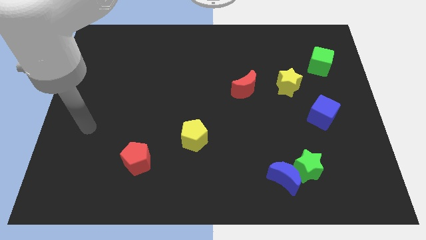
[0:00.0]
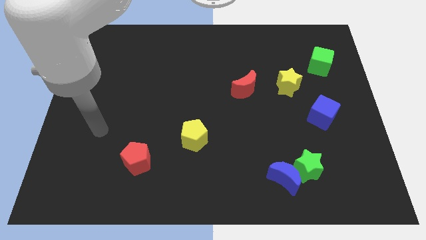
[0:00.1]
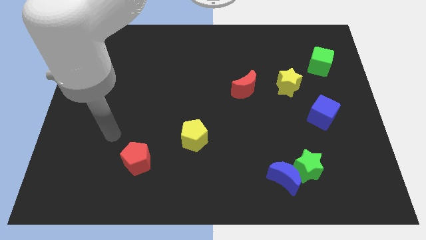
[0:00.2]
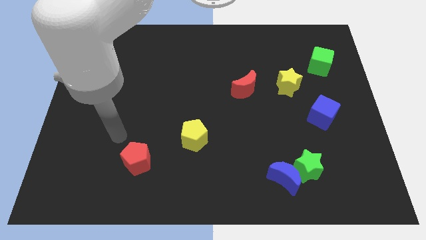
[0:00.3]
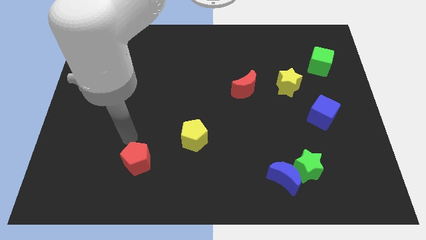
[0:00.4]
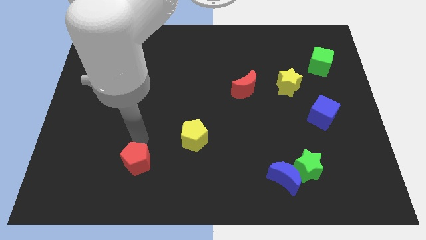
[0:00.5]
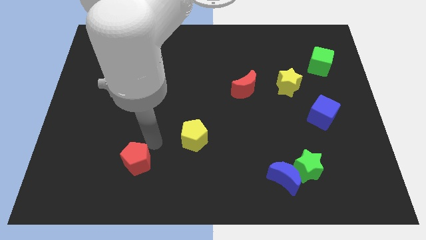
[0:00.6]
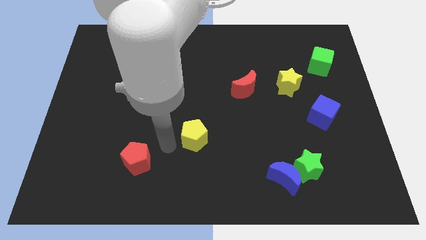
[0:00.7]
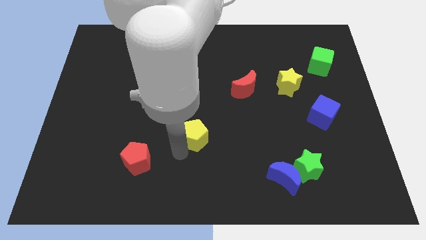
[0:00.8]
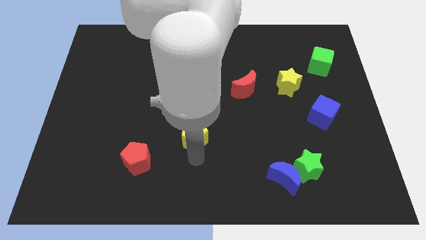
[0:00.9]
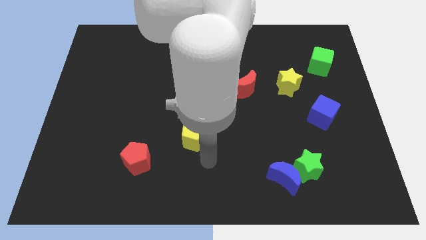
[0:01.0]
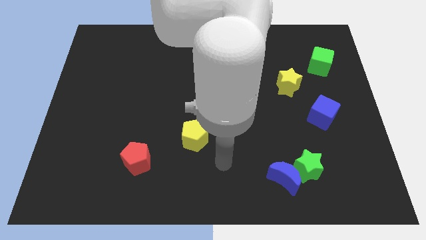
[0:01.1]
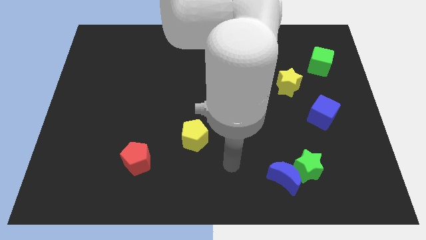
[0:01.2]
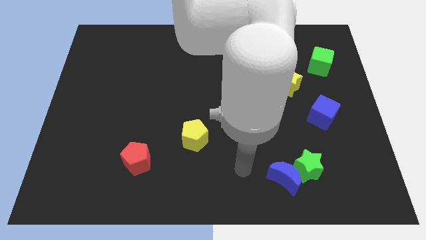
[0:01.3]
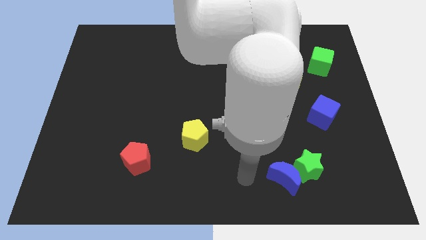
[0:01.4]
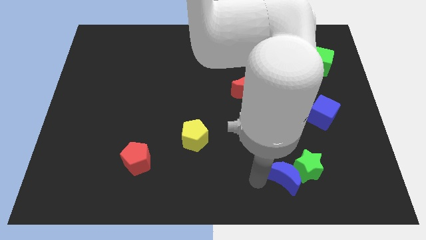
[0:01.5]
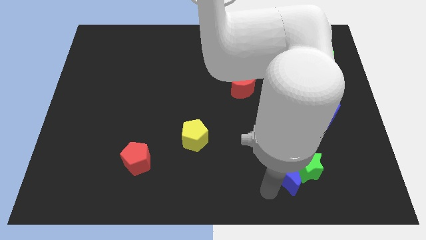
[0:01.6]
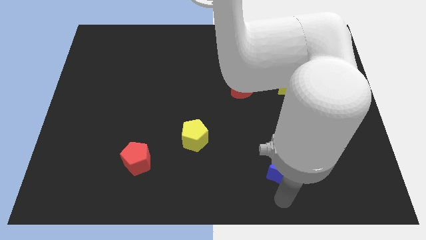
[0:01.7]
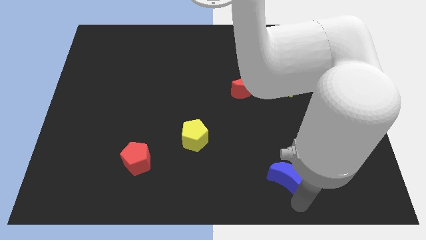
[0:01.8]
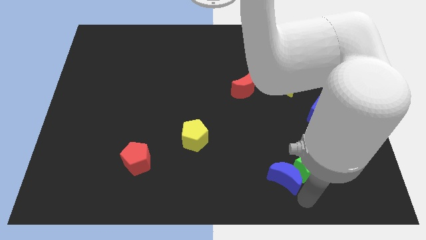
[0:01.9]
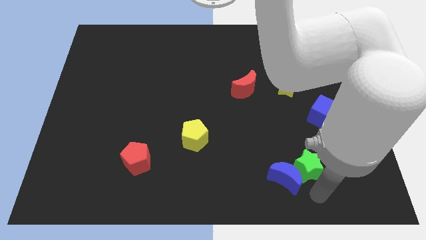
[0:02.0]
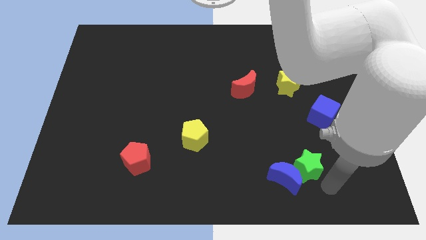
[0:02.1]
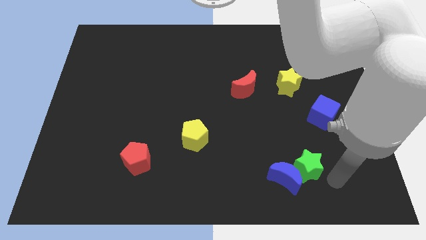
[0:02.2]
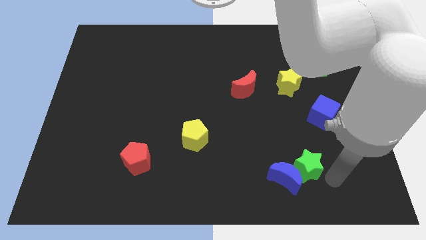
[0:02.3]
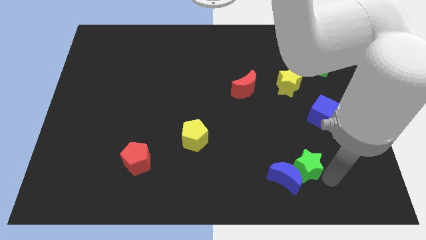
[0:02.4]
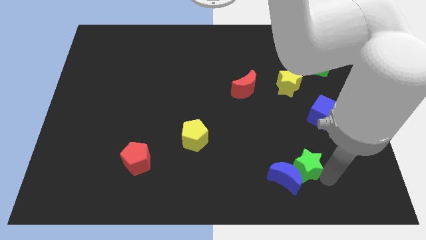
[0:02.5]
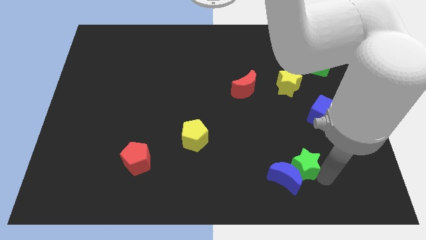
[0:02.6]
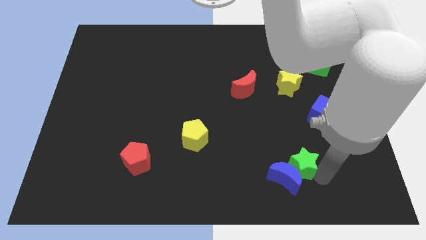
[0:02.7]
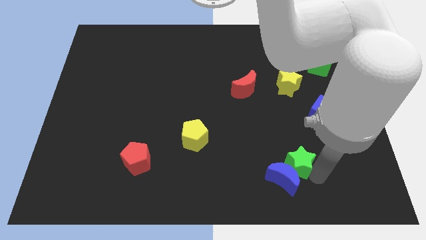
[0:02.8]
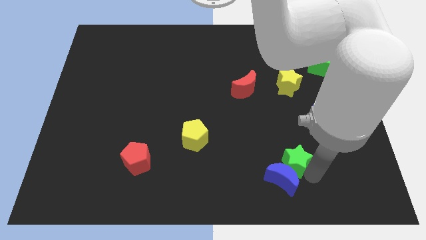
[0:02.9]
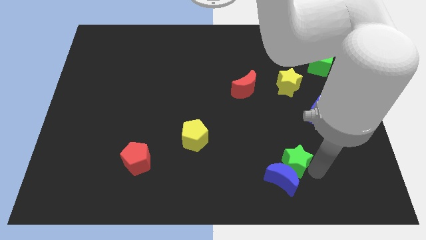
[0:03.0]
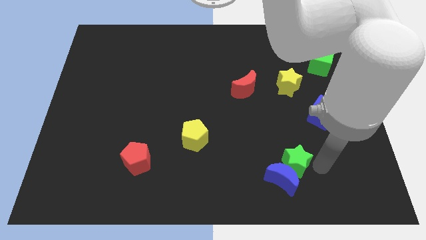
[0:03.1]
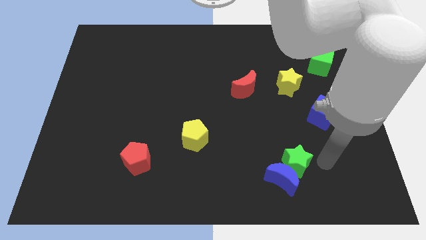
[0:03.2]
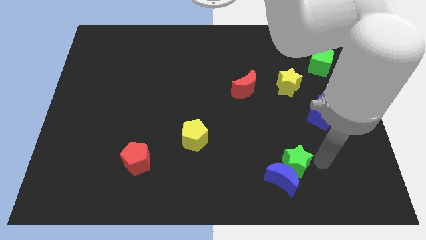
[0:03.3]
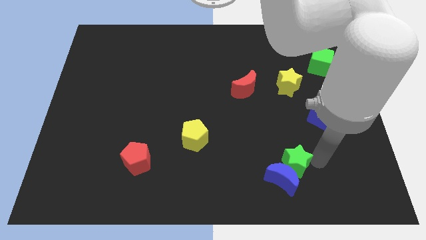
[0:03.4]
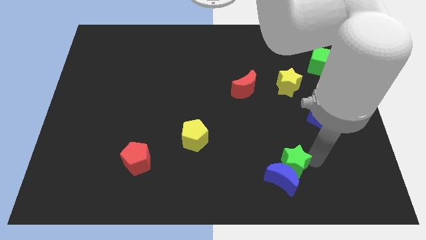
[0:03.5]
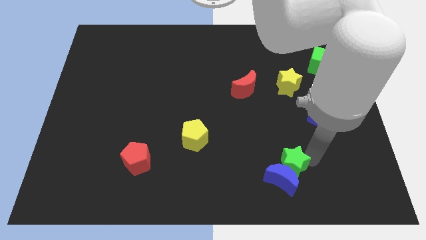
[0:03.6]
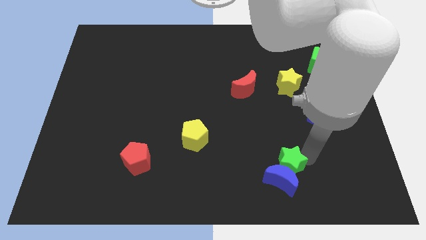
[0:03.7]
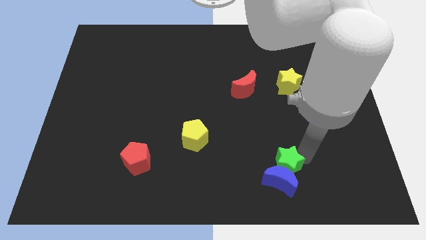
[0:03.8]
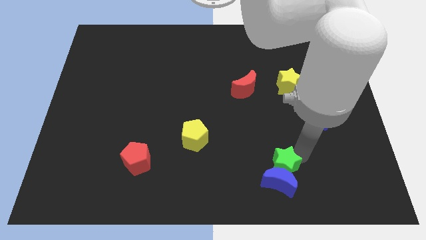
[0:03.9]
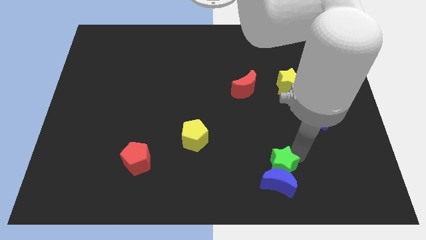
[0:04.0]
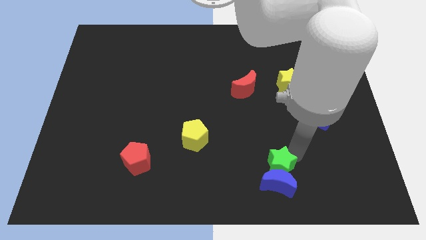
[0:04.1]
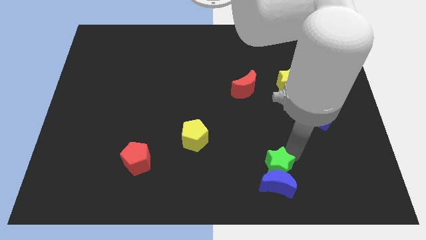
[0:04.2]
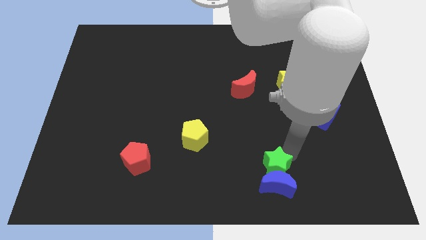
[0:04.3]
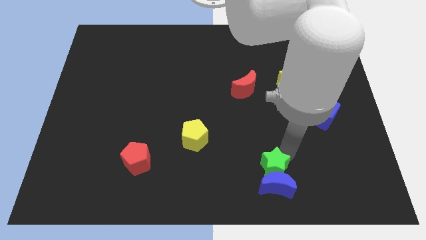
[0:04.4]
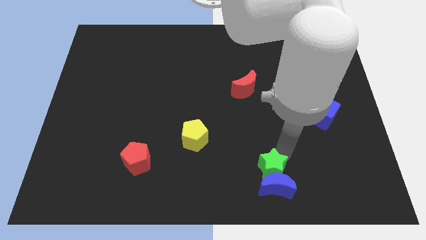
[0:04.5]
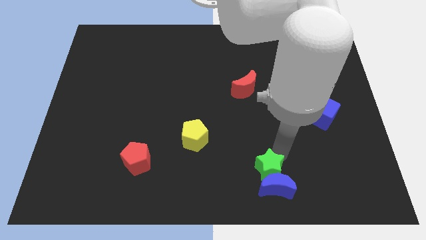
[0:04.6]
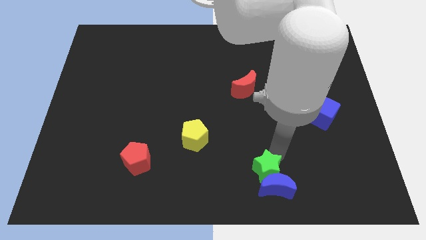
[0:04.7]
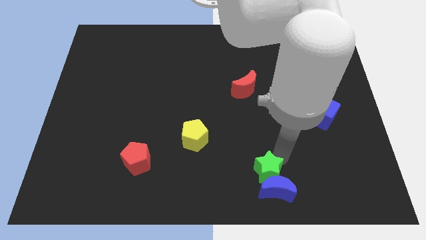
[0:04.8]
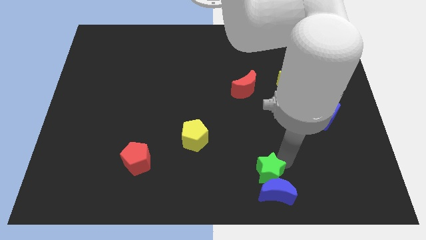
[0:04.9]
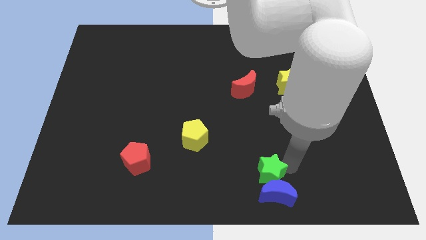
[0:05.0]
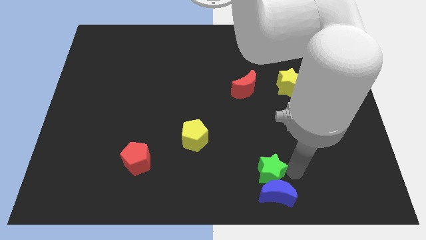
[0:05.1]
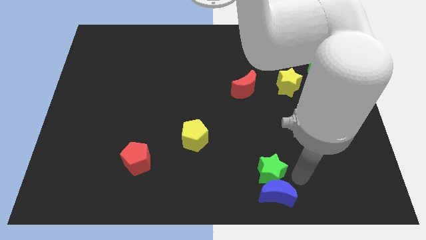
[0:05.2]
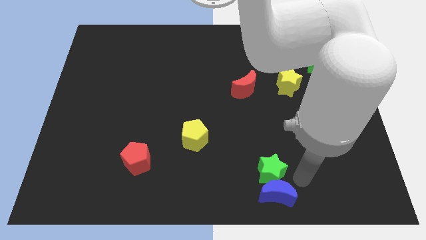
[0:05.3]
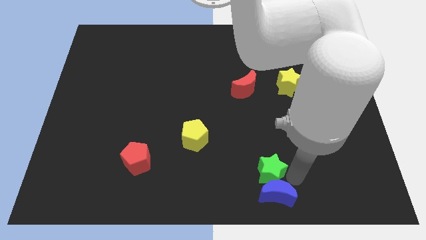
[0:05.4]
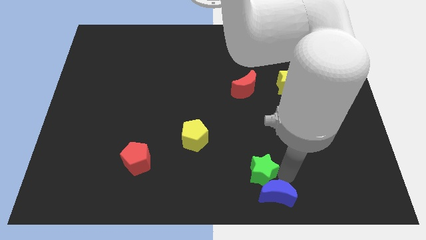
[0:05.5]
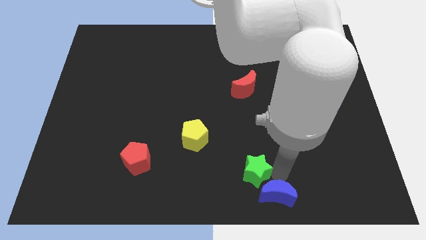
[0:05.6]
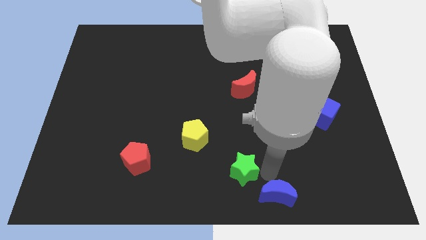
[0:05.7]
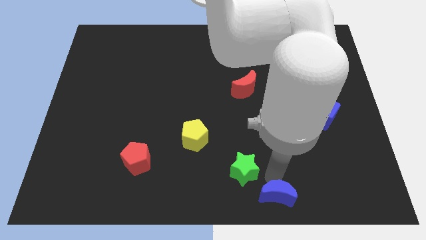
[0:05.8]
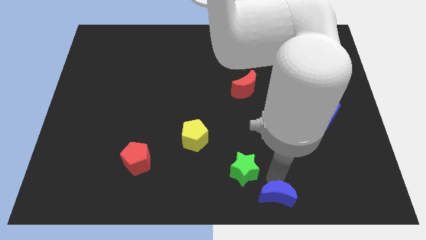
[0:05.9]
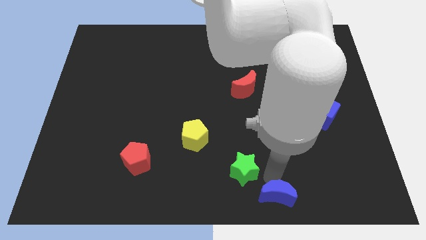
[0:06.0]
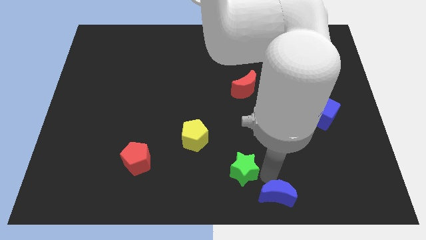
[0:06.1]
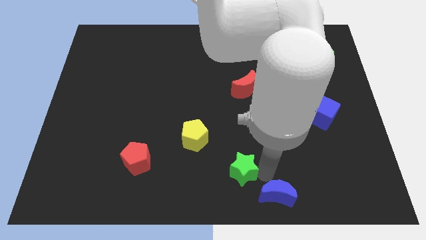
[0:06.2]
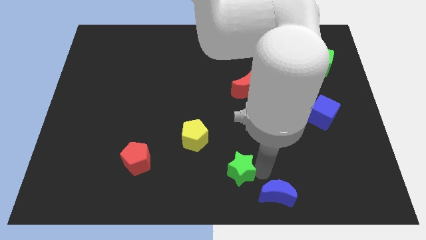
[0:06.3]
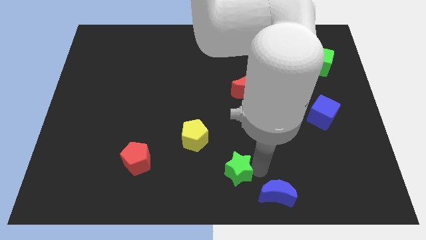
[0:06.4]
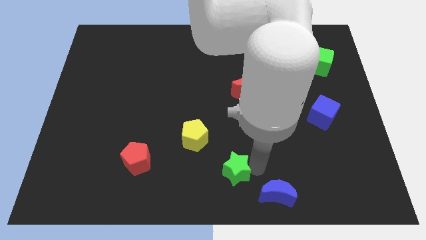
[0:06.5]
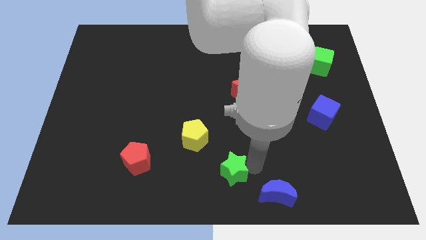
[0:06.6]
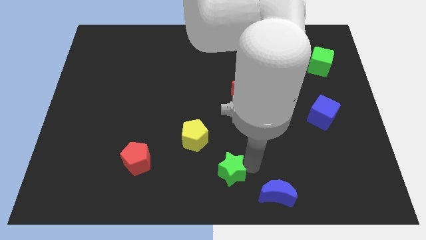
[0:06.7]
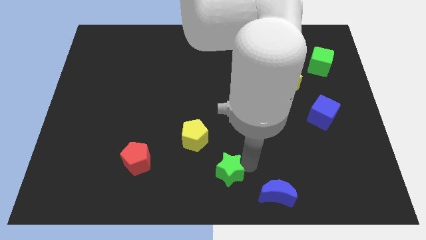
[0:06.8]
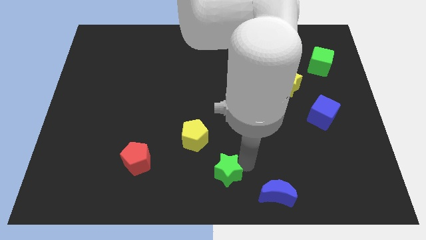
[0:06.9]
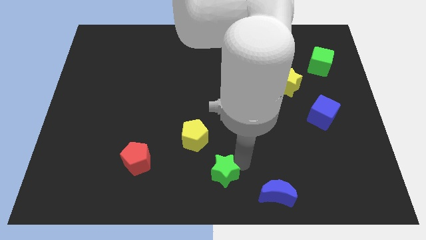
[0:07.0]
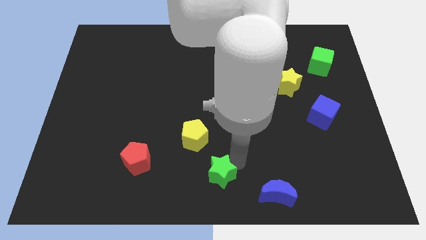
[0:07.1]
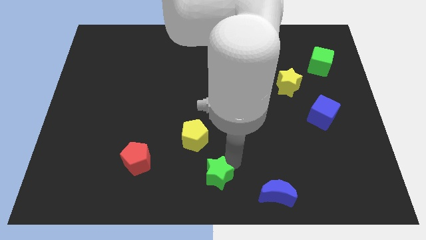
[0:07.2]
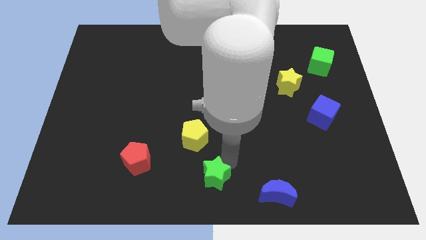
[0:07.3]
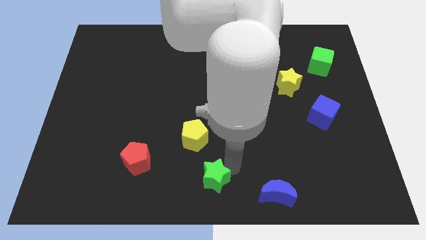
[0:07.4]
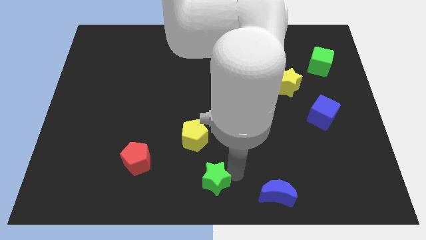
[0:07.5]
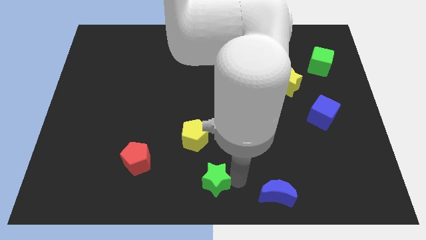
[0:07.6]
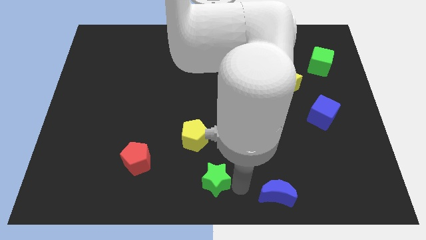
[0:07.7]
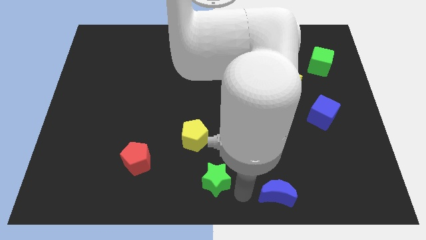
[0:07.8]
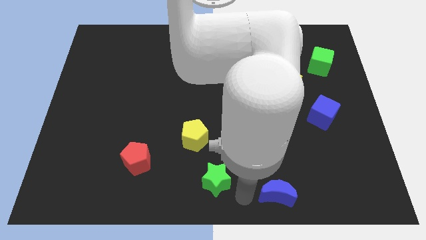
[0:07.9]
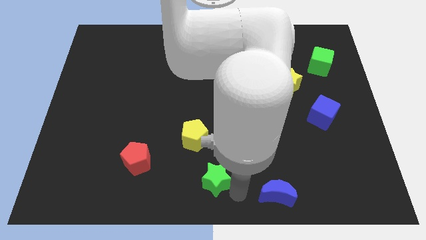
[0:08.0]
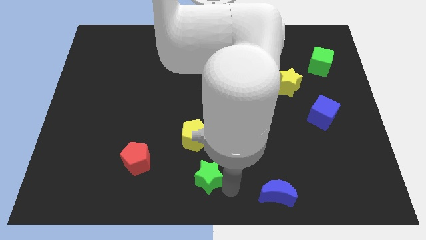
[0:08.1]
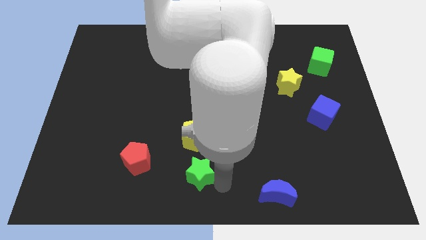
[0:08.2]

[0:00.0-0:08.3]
slide the green star to the right of the red pentagon
